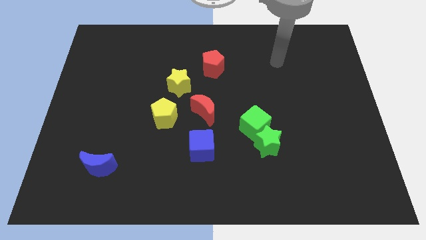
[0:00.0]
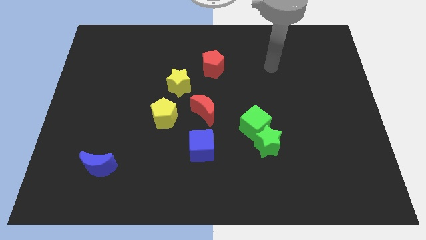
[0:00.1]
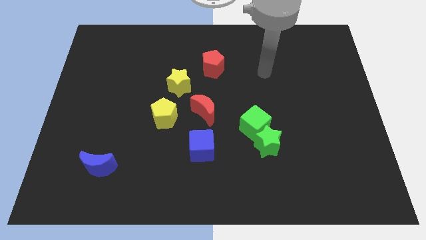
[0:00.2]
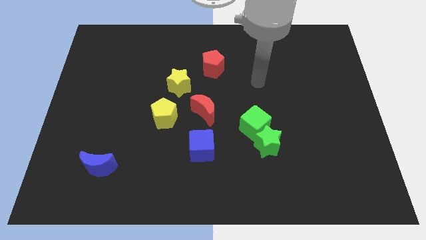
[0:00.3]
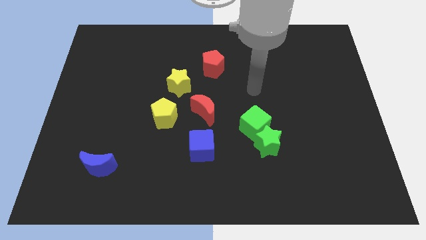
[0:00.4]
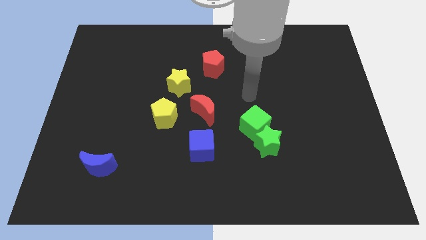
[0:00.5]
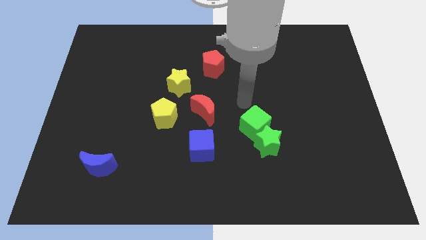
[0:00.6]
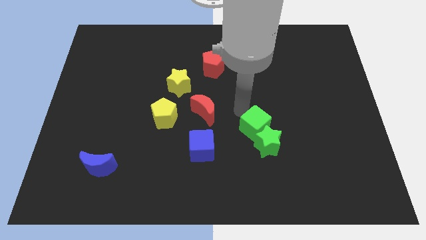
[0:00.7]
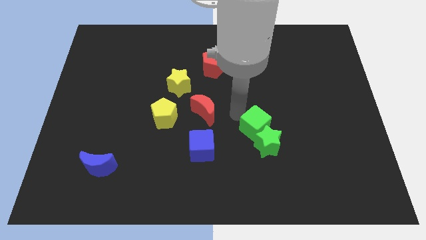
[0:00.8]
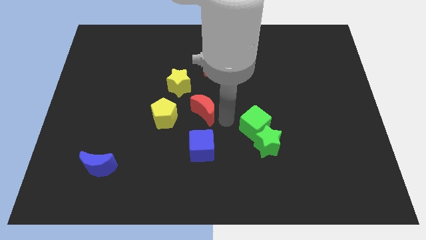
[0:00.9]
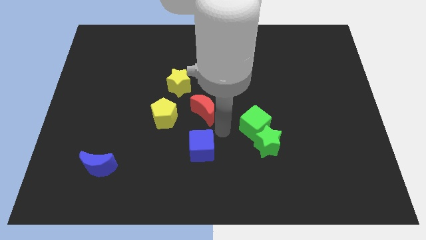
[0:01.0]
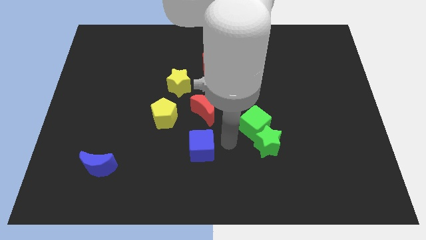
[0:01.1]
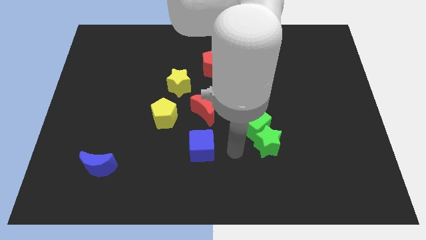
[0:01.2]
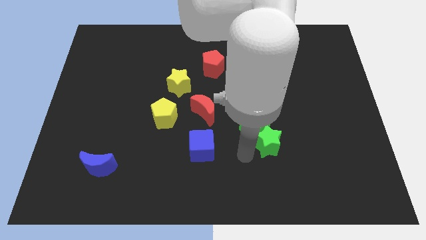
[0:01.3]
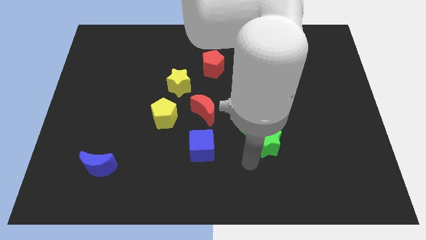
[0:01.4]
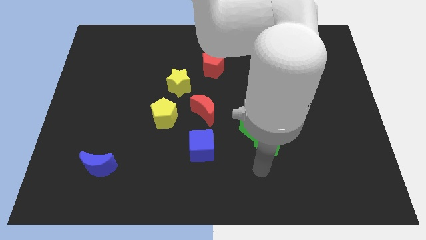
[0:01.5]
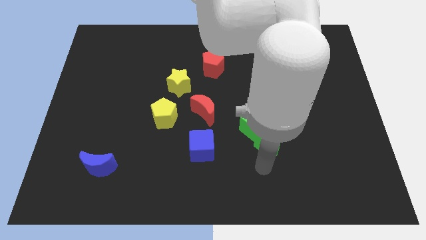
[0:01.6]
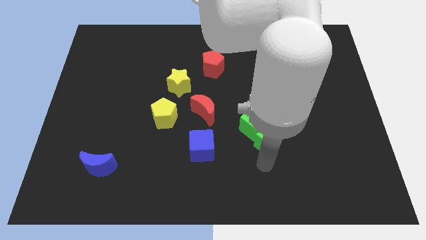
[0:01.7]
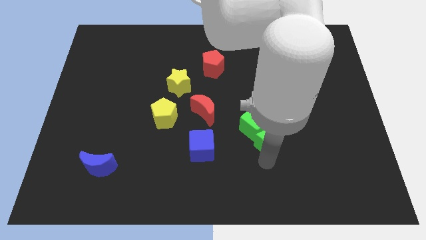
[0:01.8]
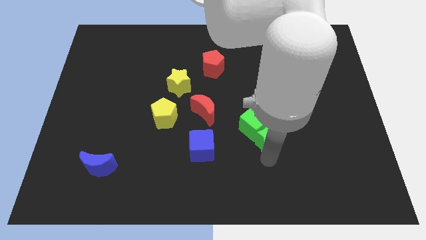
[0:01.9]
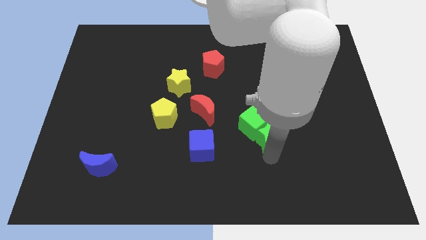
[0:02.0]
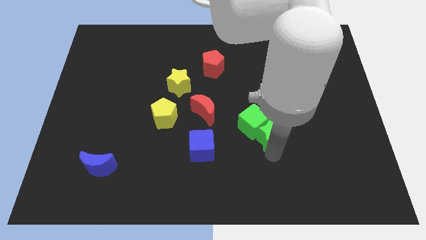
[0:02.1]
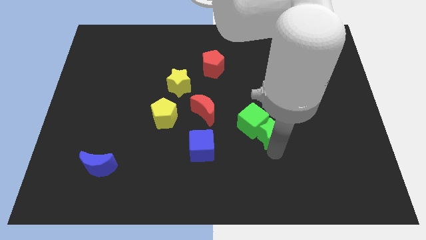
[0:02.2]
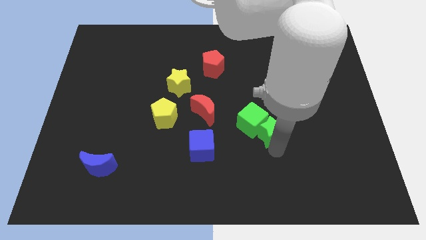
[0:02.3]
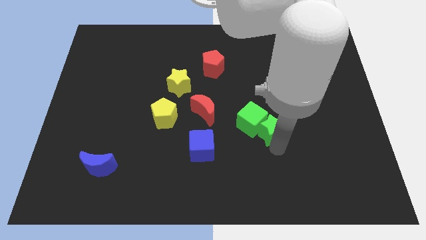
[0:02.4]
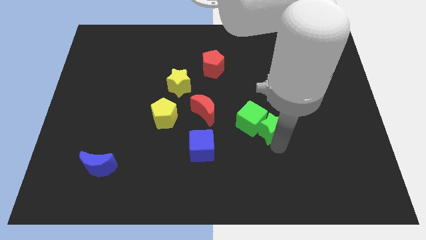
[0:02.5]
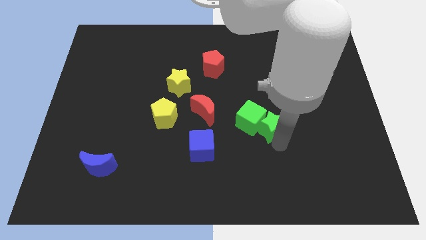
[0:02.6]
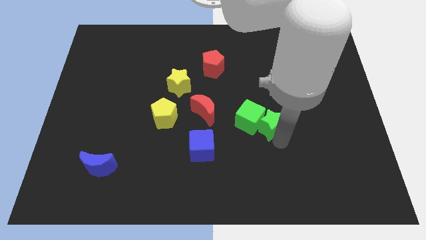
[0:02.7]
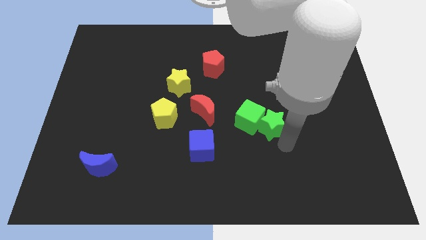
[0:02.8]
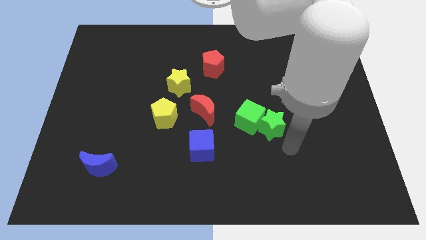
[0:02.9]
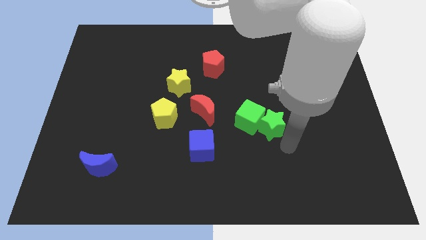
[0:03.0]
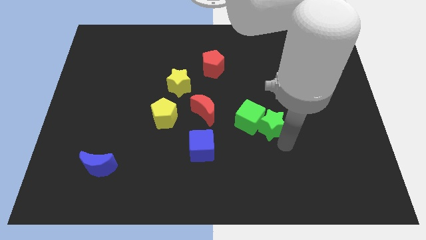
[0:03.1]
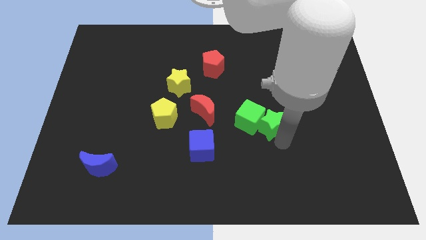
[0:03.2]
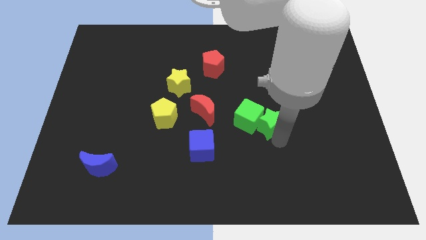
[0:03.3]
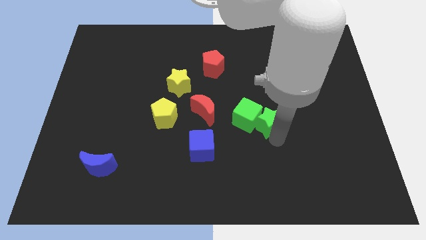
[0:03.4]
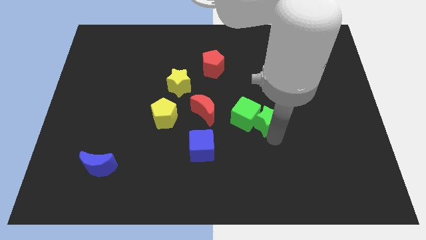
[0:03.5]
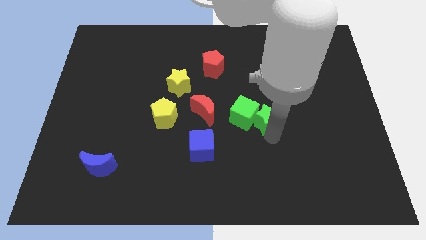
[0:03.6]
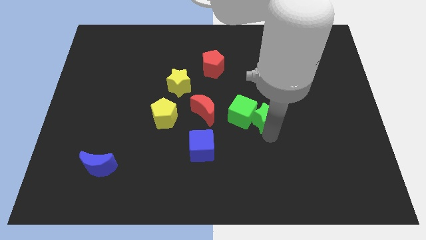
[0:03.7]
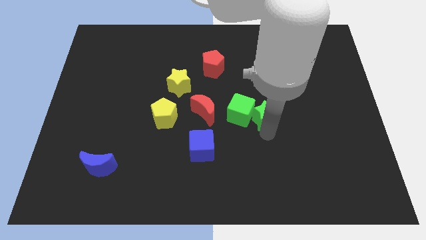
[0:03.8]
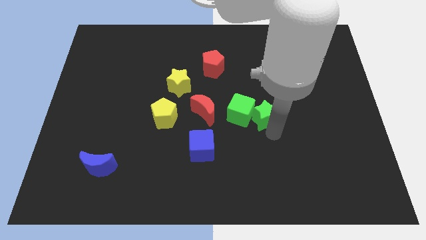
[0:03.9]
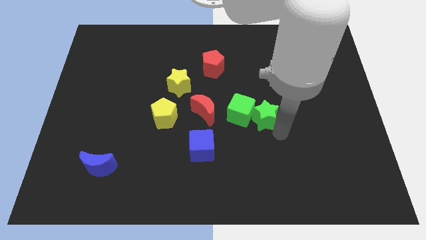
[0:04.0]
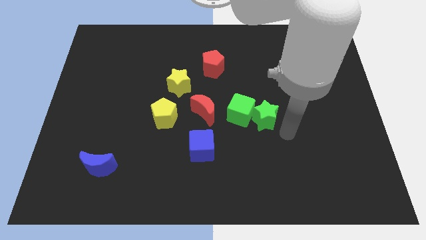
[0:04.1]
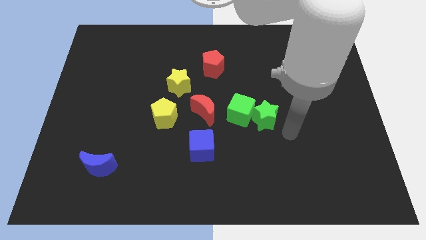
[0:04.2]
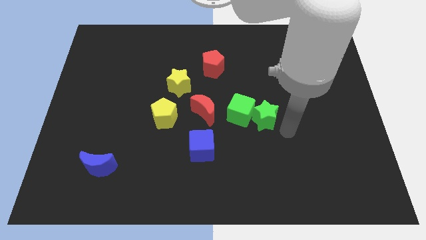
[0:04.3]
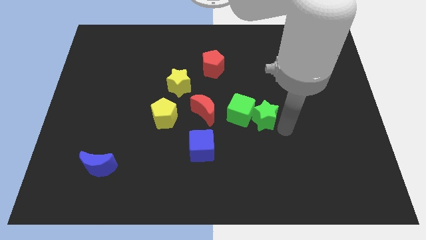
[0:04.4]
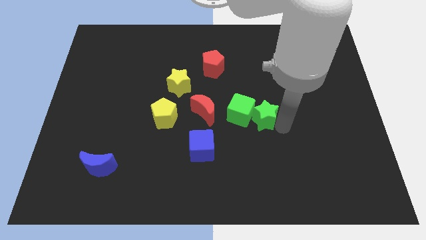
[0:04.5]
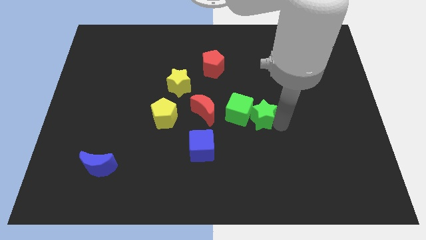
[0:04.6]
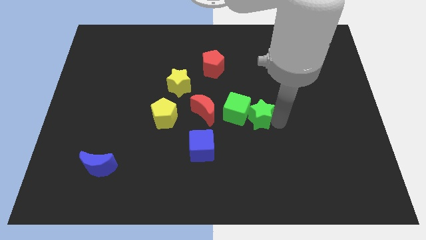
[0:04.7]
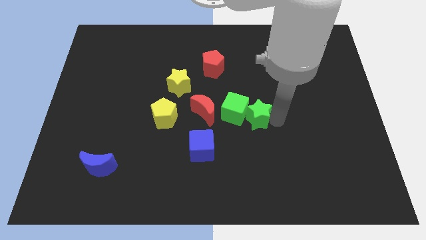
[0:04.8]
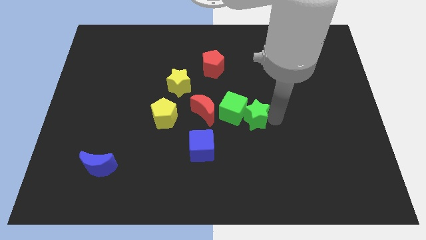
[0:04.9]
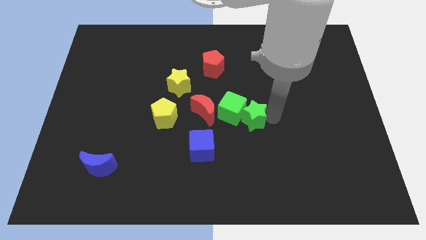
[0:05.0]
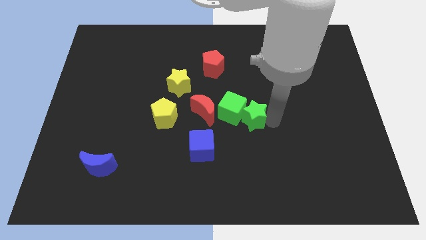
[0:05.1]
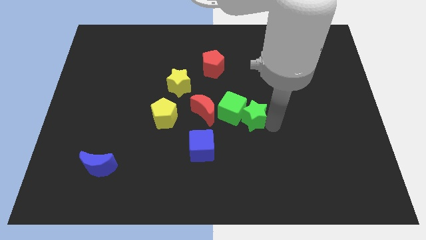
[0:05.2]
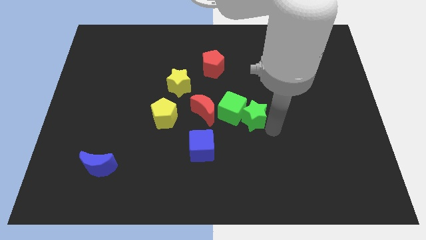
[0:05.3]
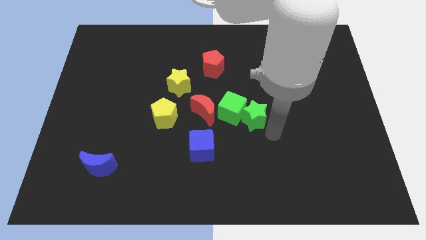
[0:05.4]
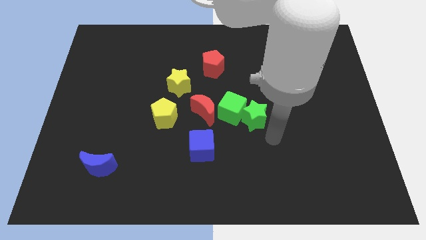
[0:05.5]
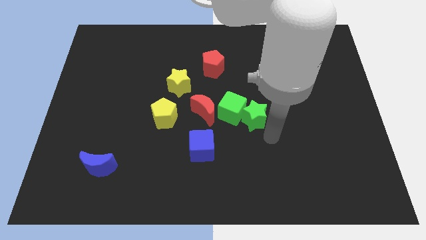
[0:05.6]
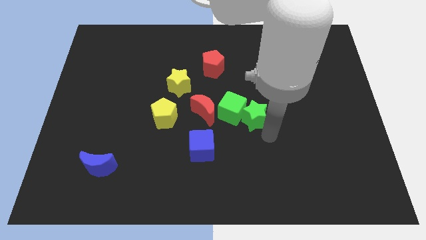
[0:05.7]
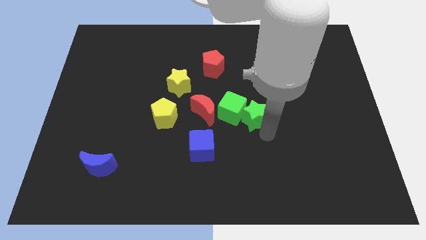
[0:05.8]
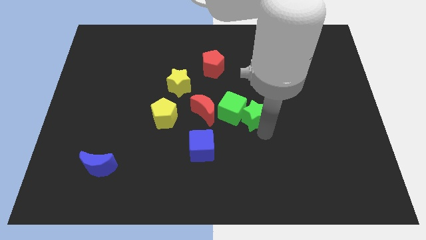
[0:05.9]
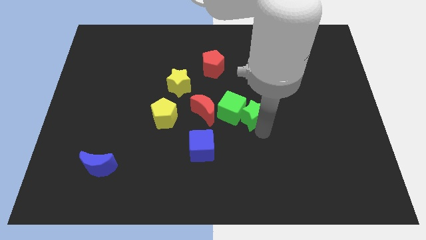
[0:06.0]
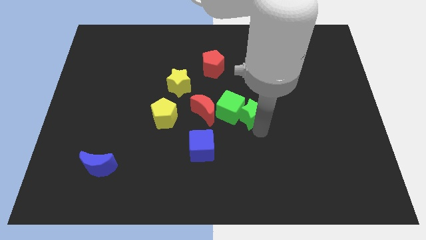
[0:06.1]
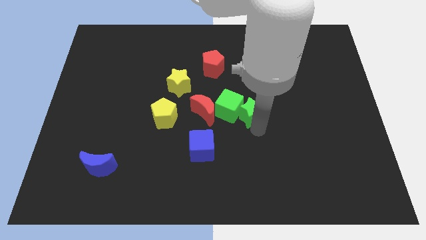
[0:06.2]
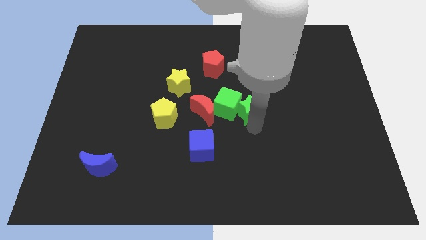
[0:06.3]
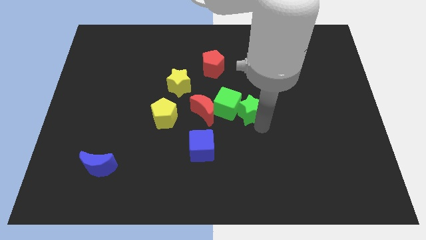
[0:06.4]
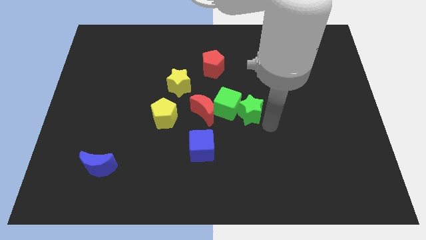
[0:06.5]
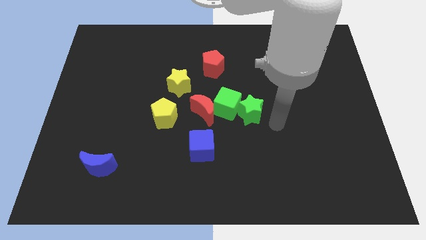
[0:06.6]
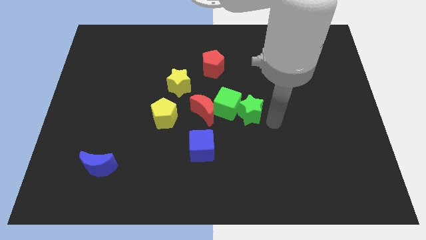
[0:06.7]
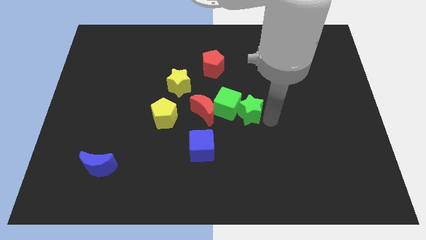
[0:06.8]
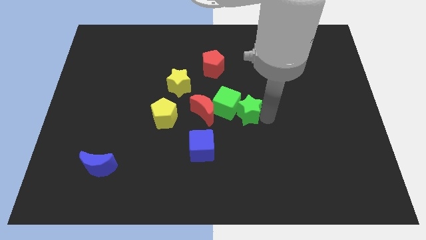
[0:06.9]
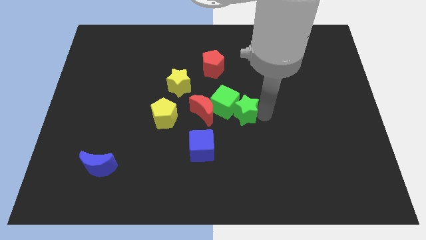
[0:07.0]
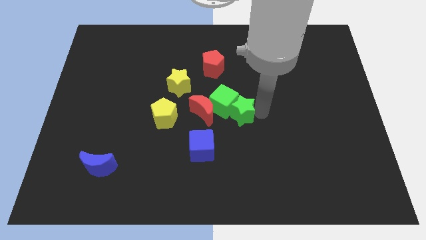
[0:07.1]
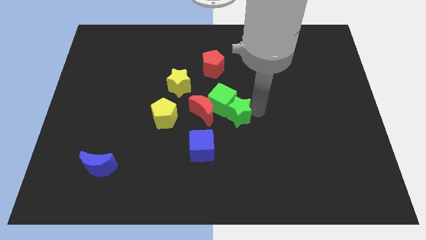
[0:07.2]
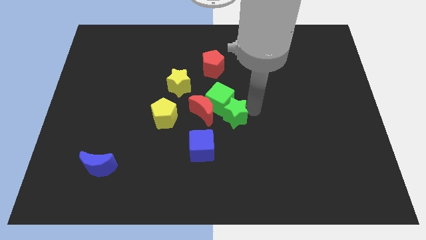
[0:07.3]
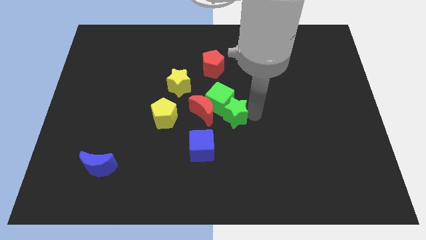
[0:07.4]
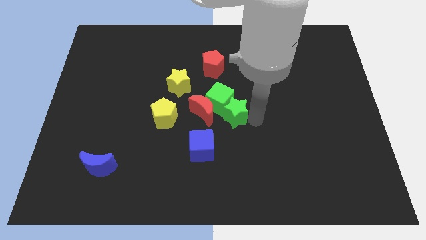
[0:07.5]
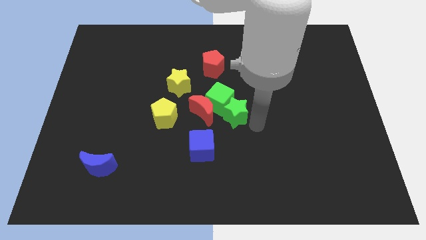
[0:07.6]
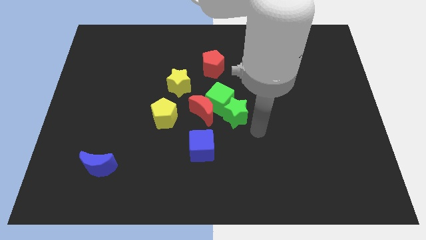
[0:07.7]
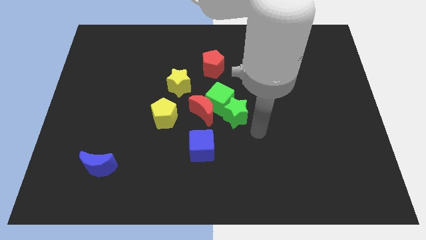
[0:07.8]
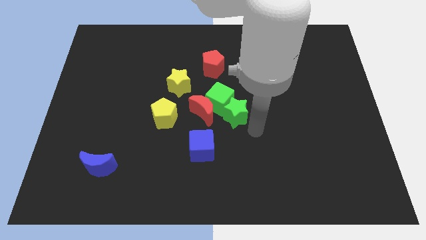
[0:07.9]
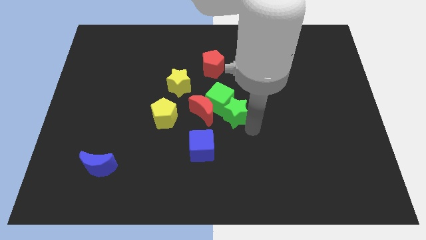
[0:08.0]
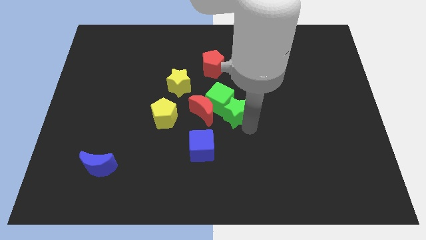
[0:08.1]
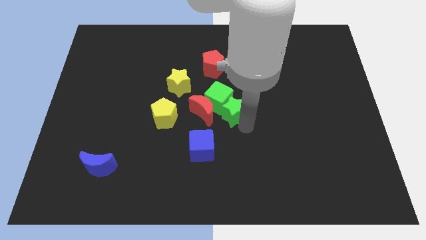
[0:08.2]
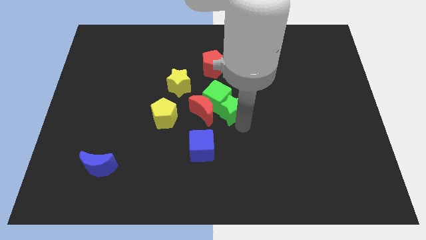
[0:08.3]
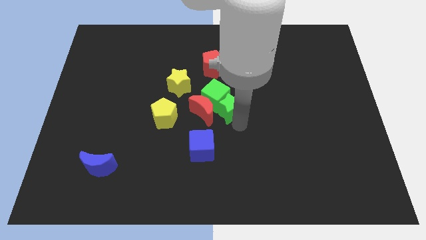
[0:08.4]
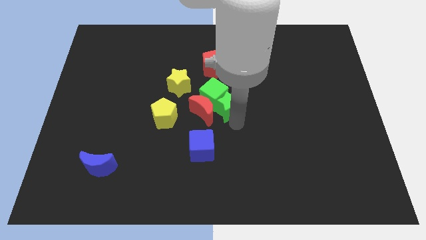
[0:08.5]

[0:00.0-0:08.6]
move the green star to the bottom of the red pentagon
